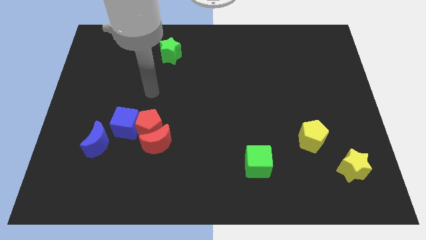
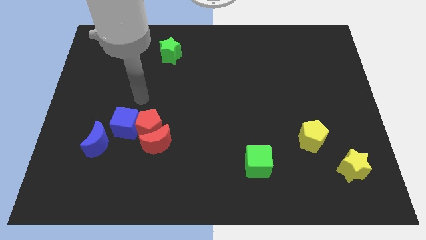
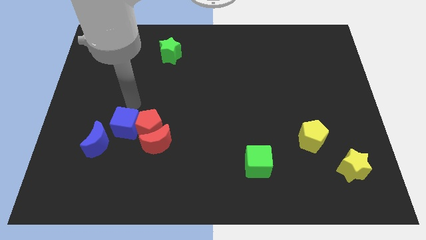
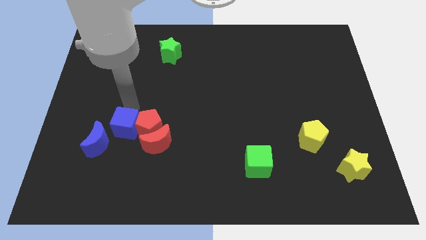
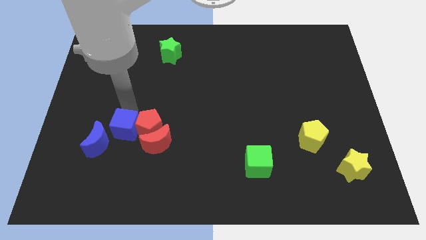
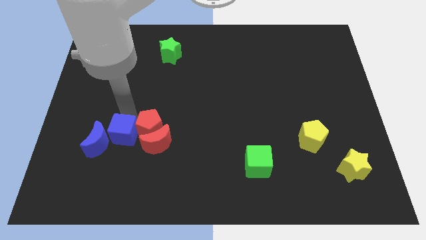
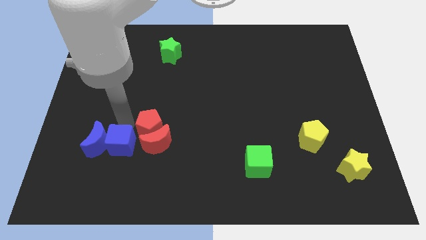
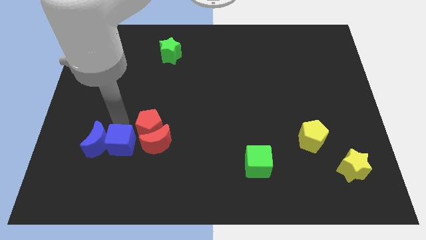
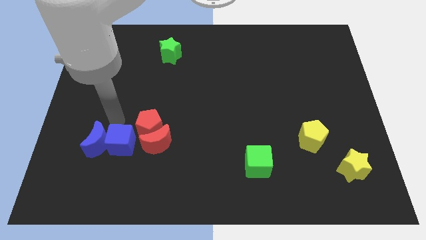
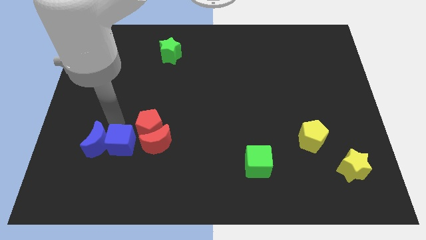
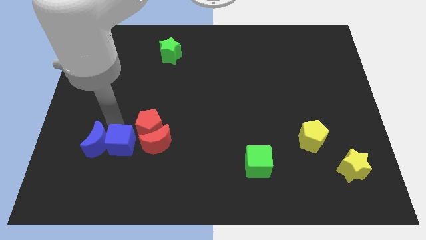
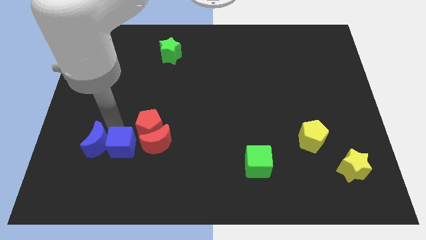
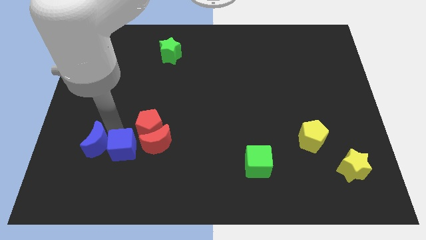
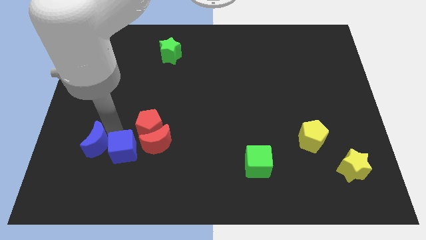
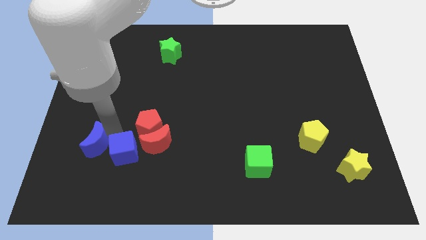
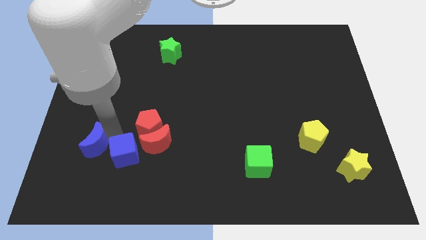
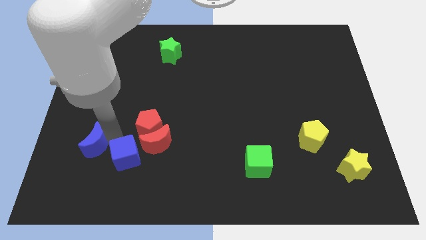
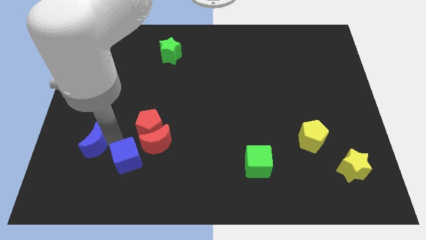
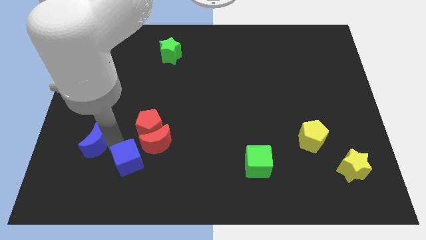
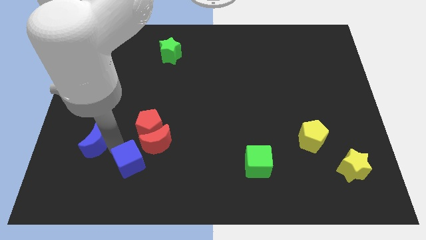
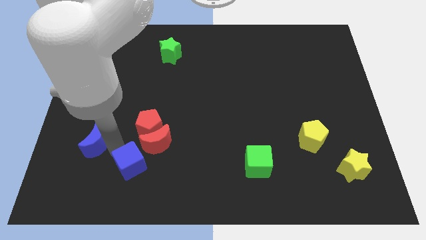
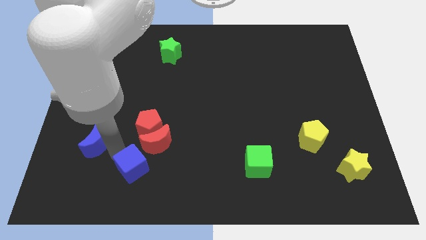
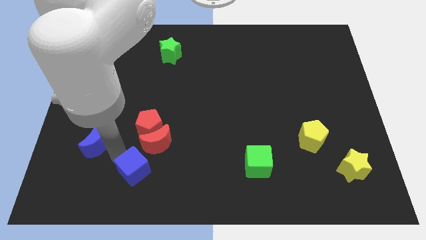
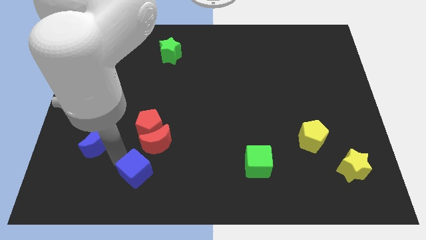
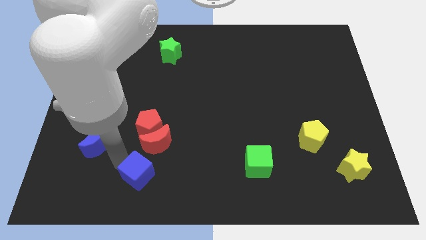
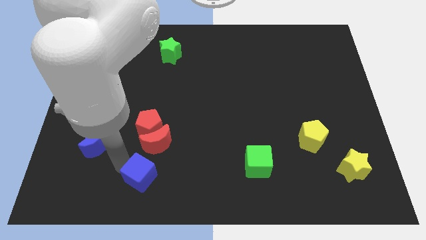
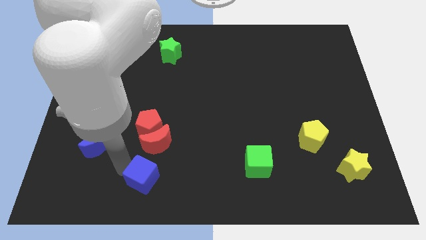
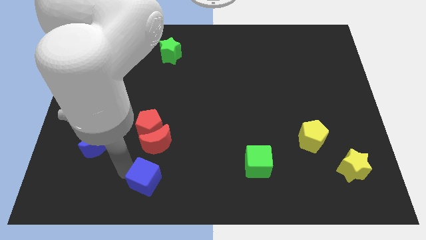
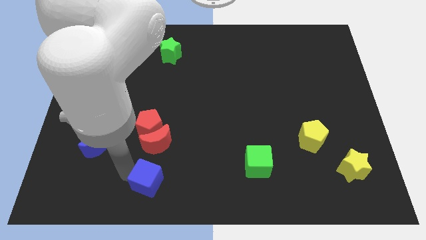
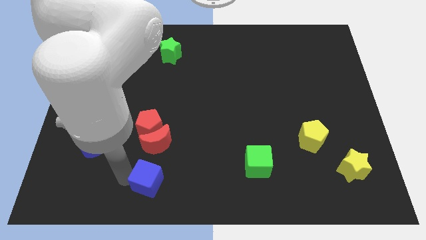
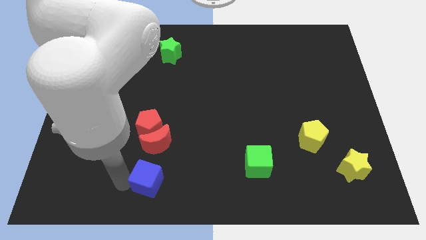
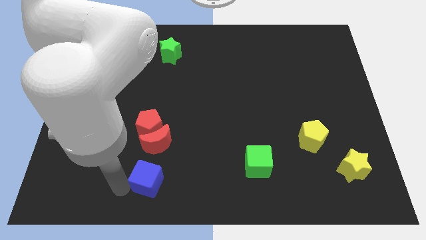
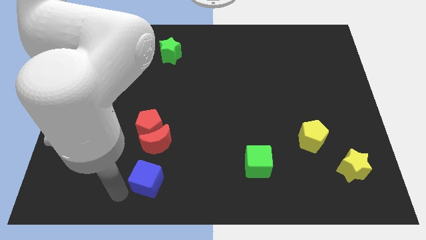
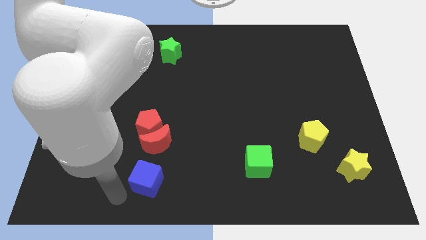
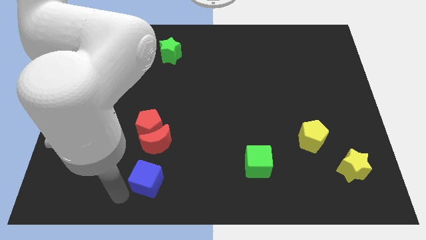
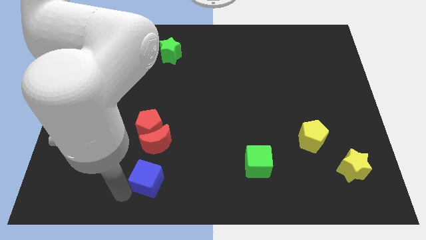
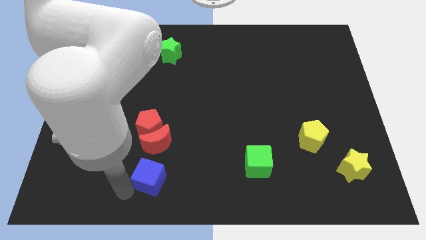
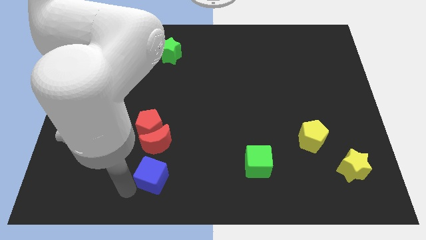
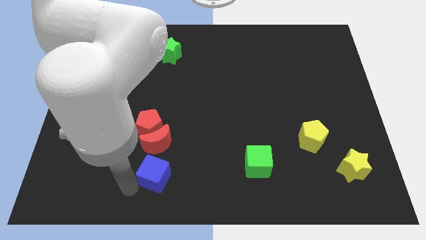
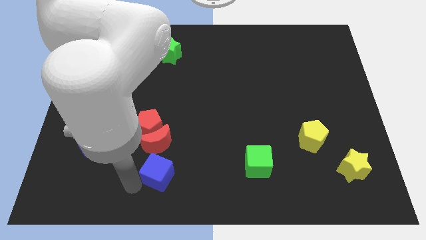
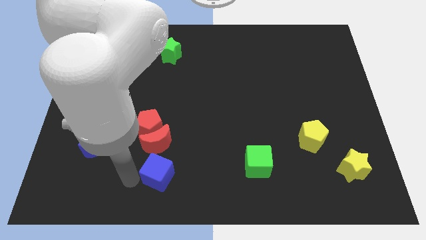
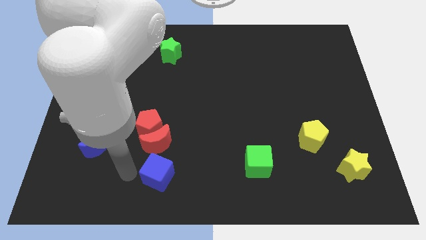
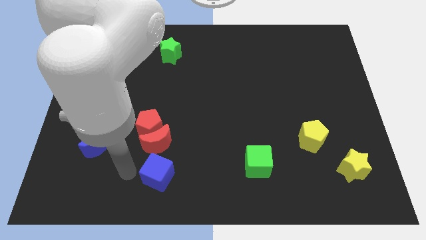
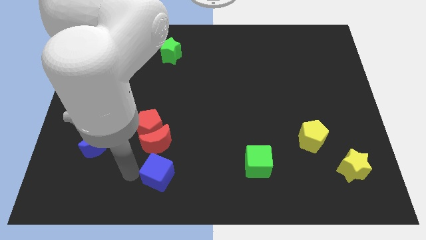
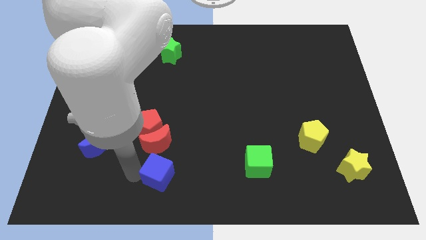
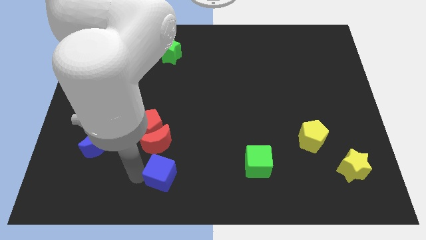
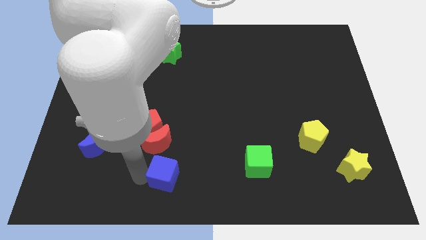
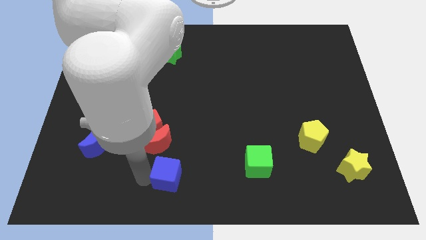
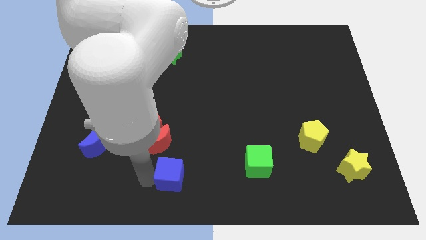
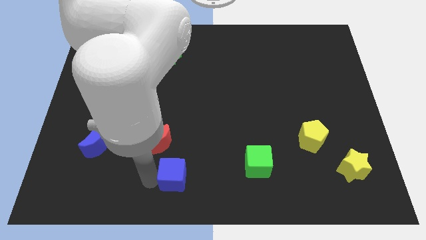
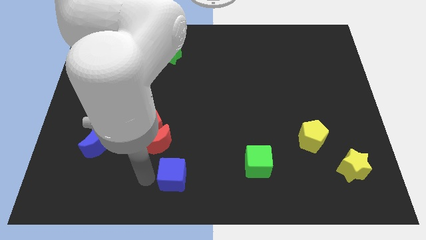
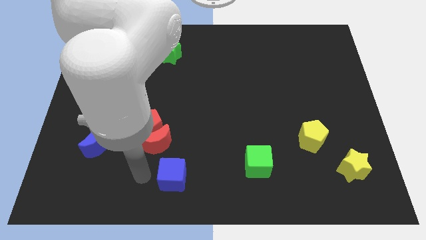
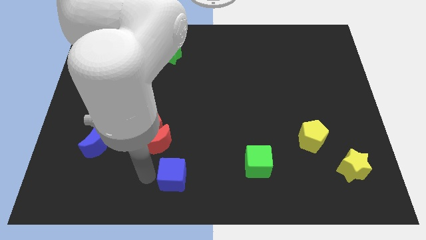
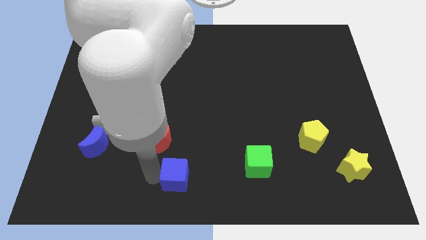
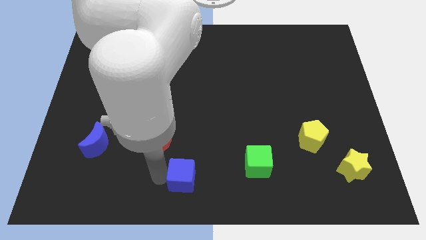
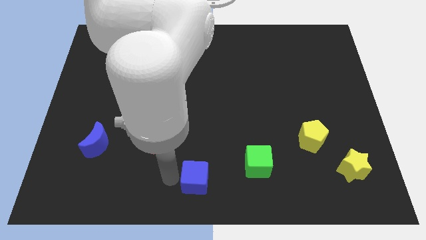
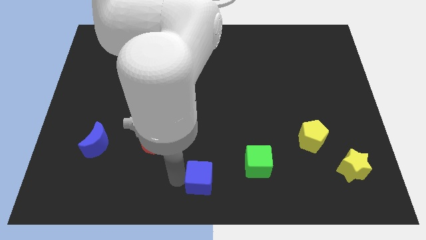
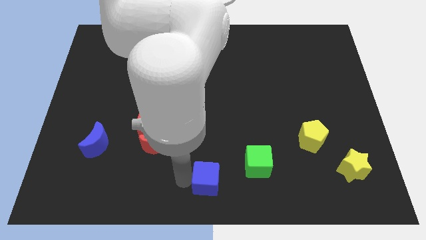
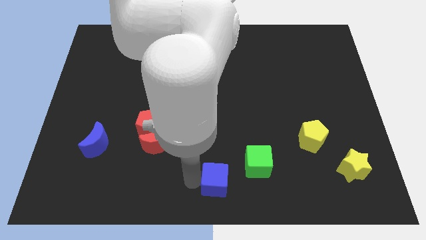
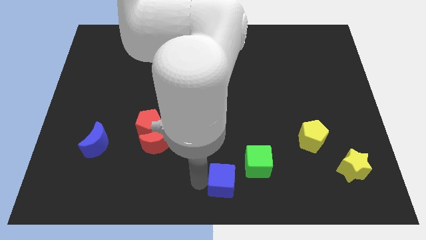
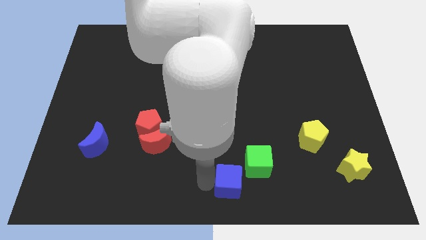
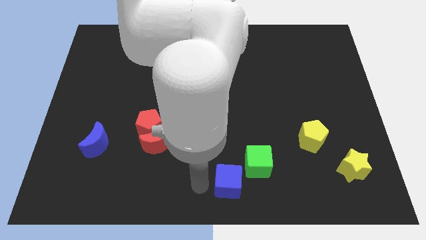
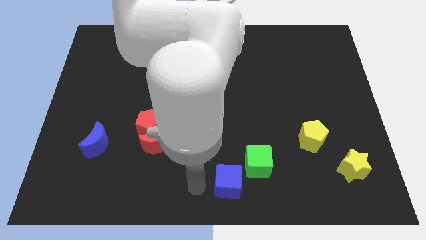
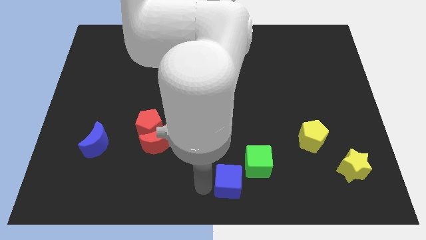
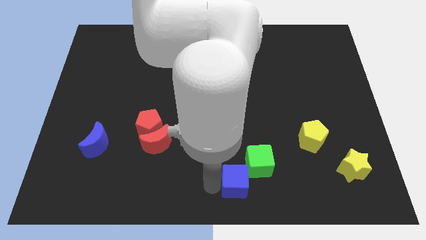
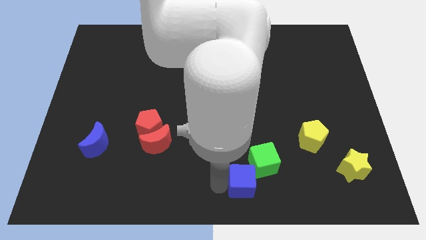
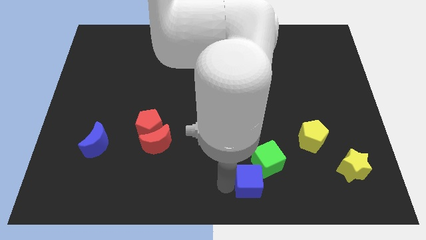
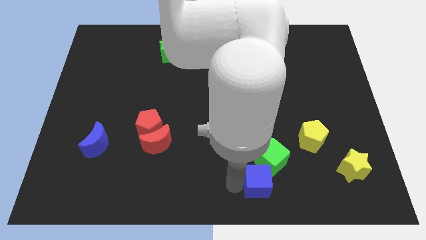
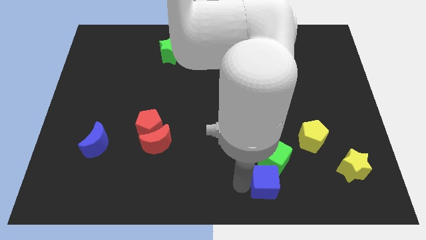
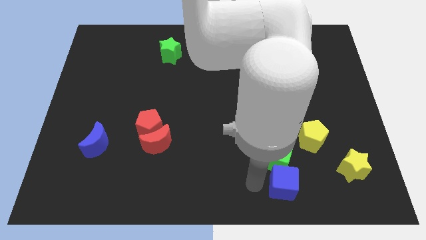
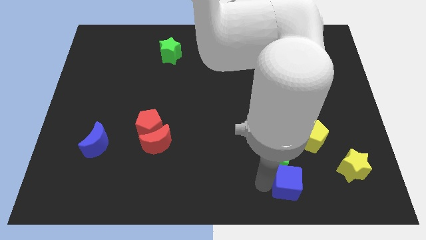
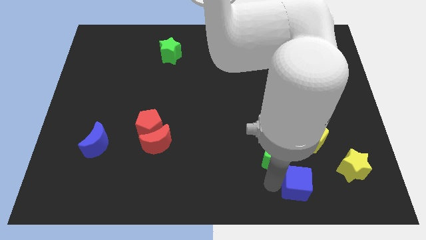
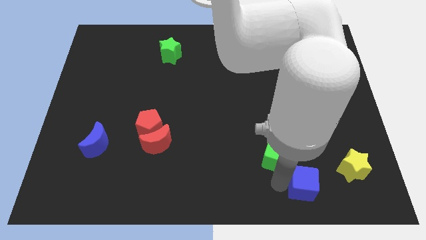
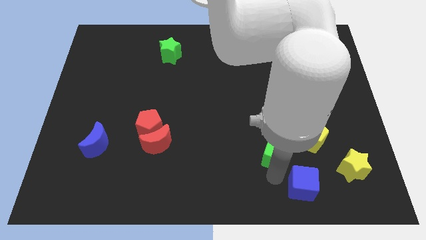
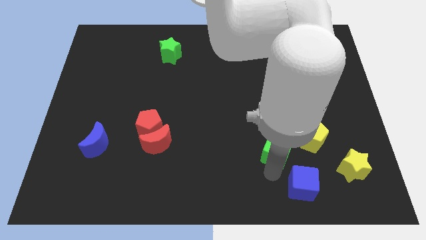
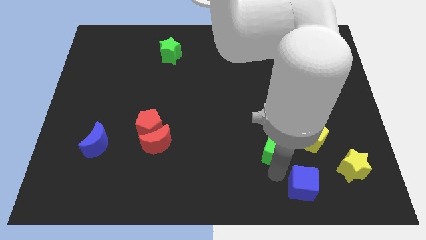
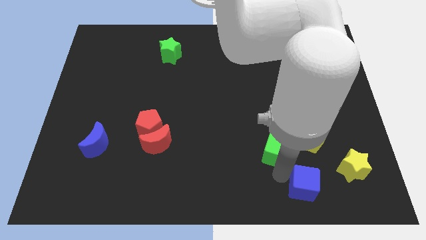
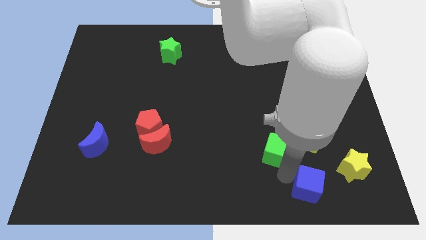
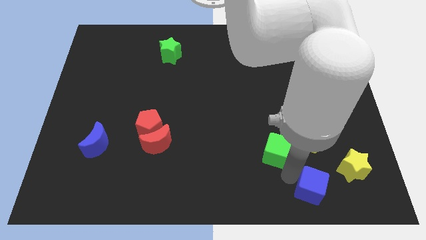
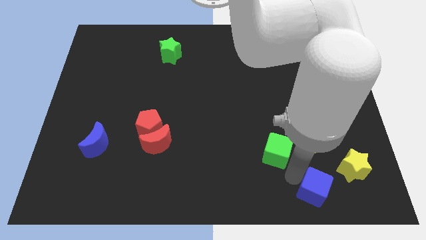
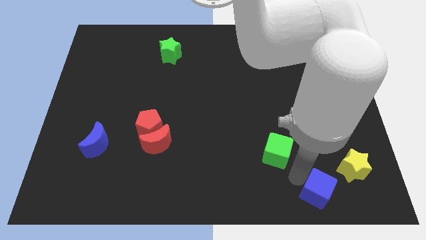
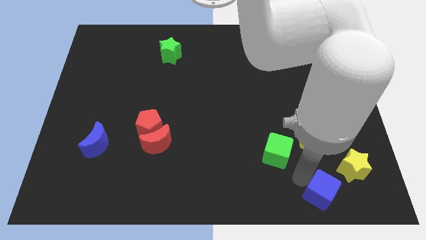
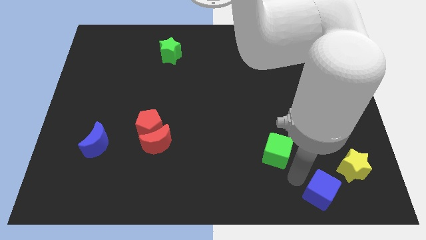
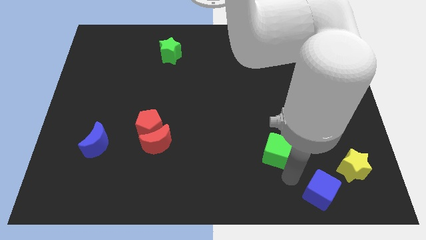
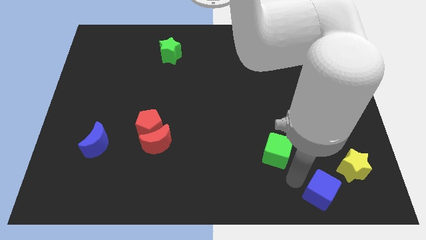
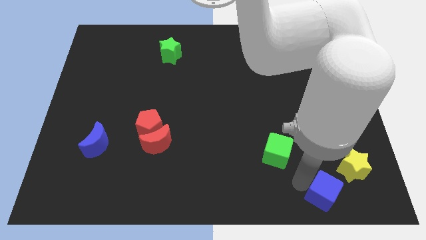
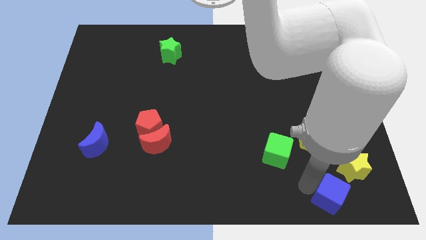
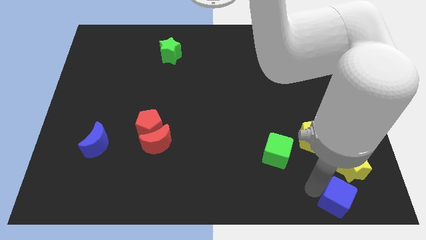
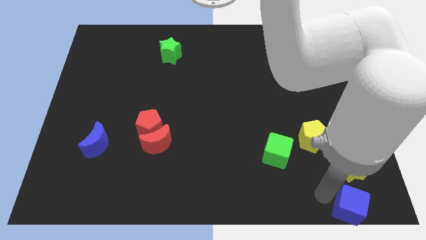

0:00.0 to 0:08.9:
push the blue cube to the bottom right corner
